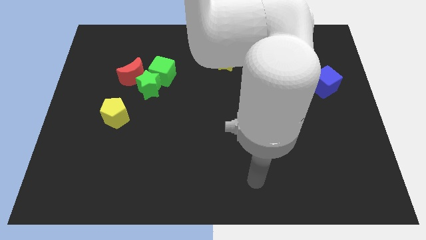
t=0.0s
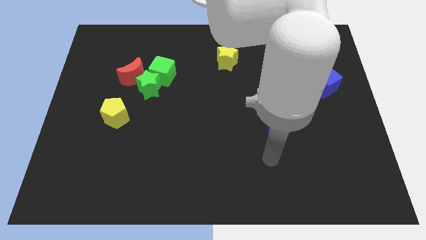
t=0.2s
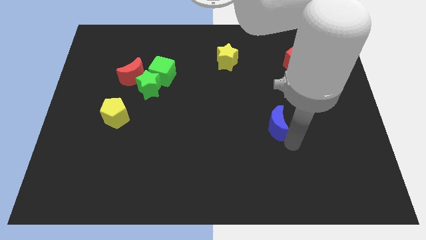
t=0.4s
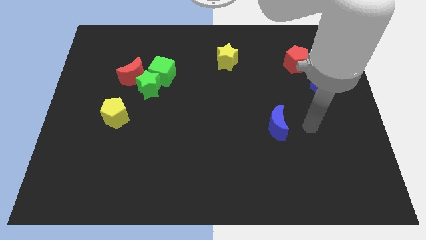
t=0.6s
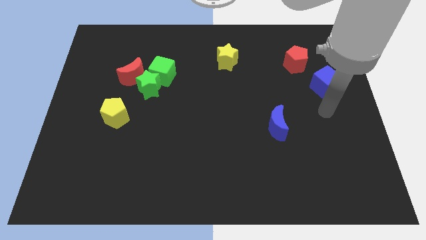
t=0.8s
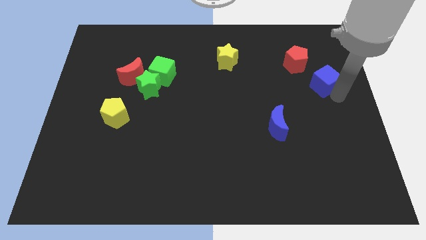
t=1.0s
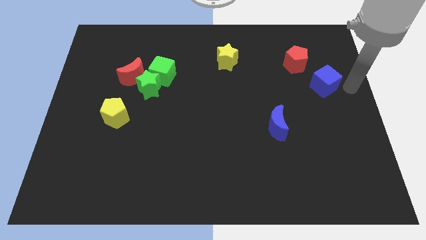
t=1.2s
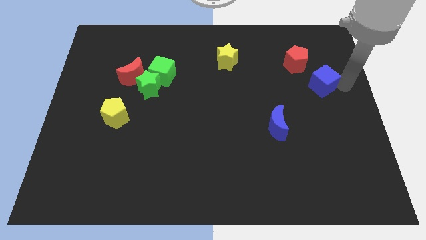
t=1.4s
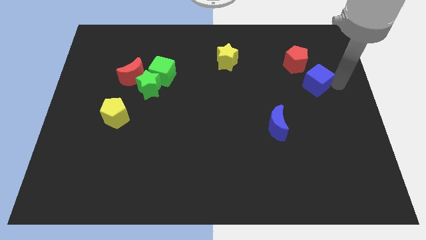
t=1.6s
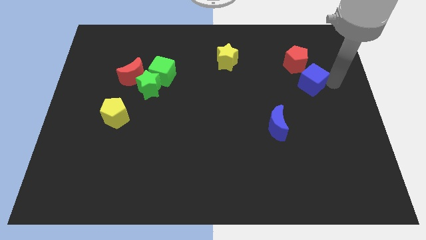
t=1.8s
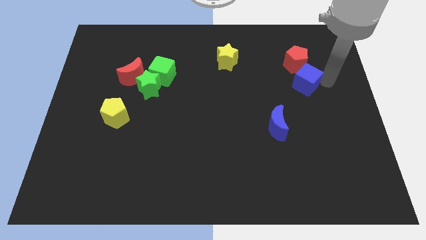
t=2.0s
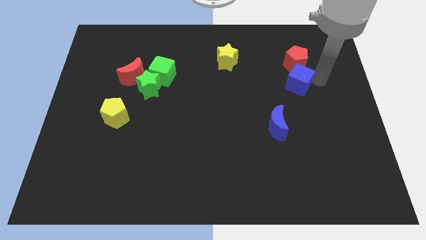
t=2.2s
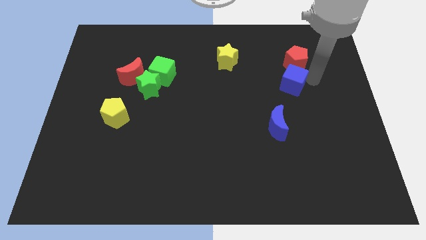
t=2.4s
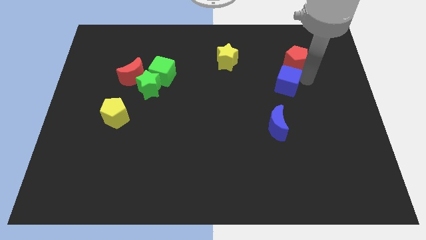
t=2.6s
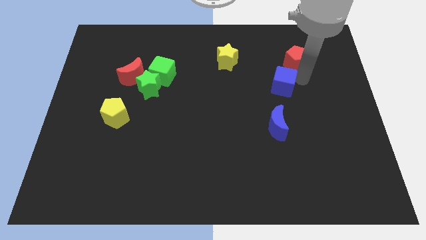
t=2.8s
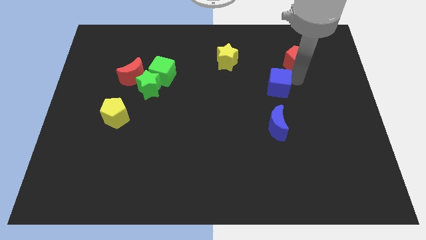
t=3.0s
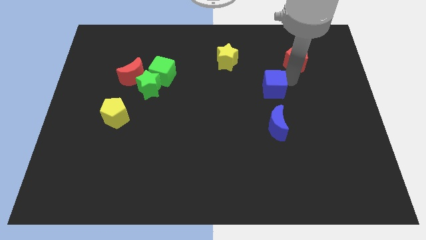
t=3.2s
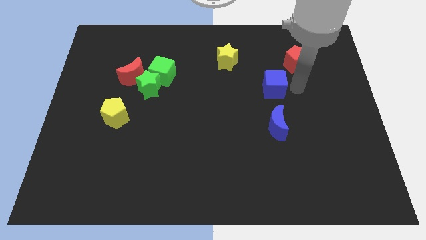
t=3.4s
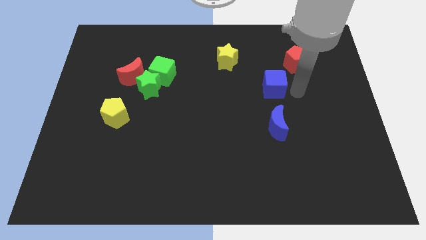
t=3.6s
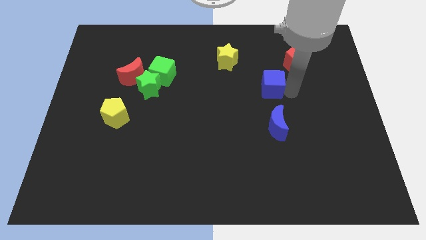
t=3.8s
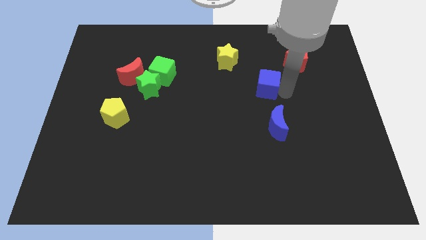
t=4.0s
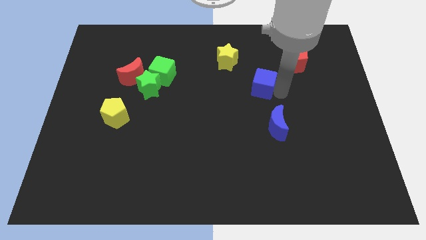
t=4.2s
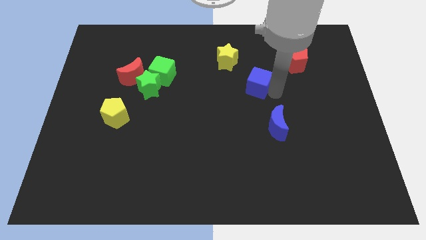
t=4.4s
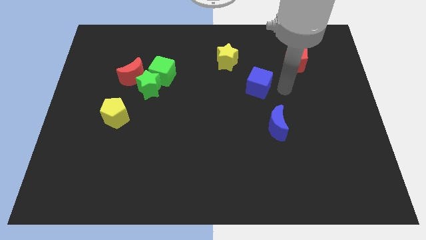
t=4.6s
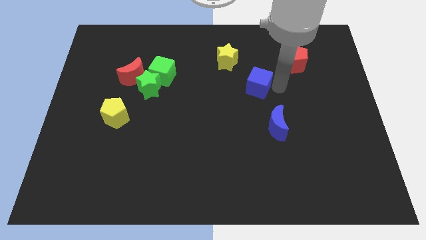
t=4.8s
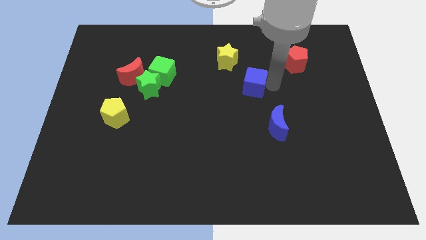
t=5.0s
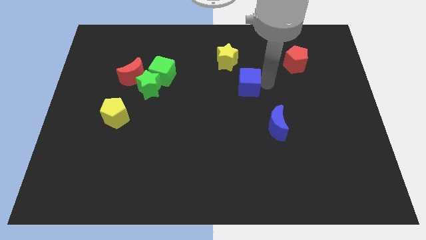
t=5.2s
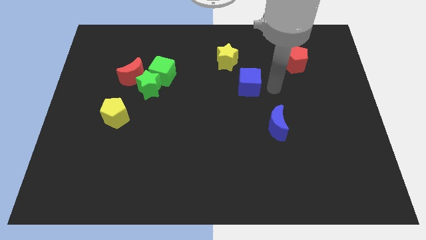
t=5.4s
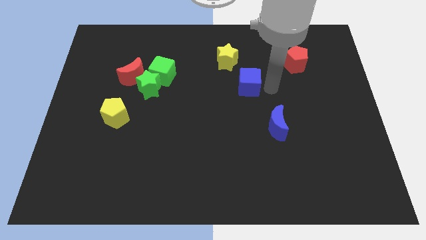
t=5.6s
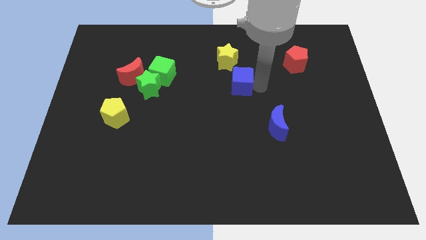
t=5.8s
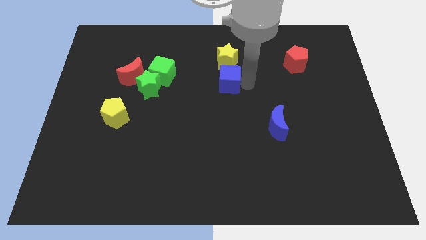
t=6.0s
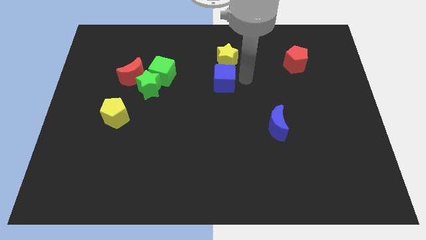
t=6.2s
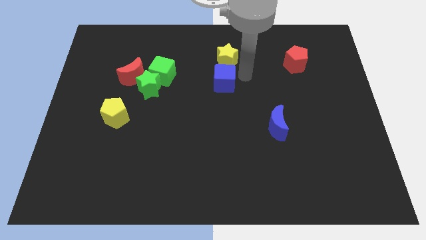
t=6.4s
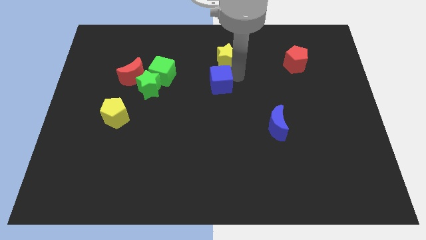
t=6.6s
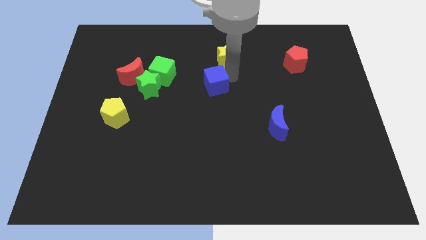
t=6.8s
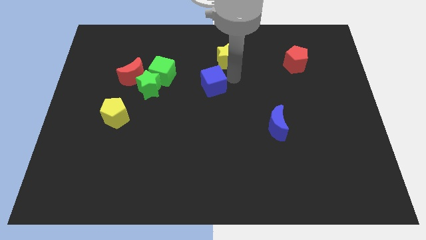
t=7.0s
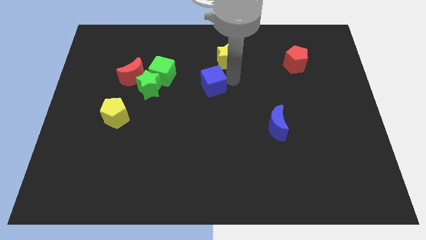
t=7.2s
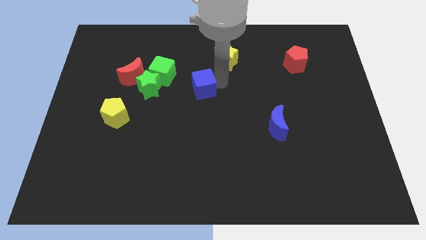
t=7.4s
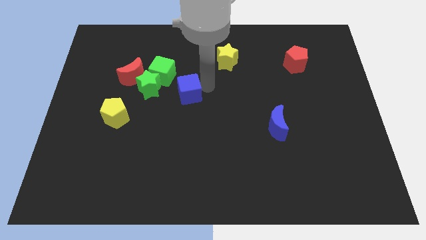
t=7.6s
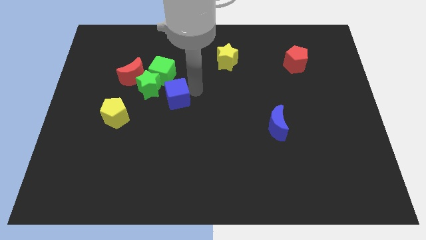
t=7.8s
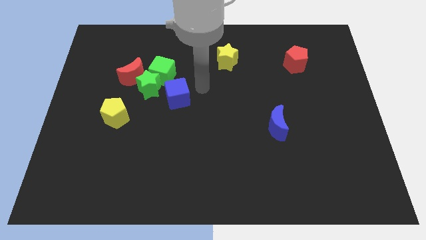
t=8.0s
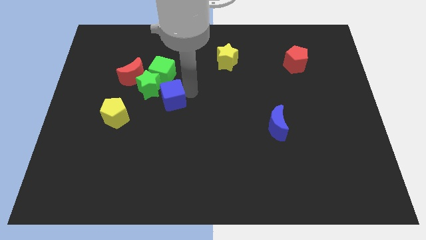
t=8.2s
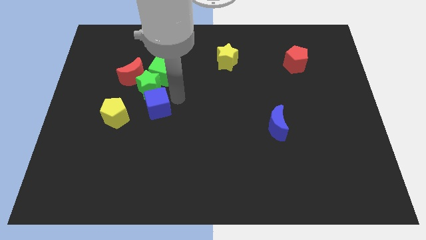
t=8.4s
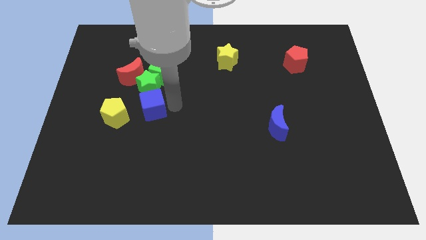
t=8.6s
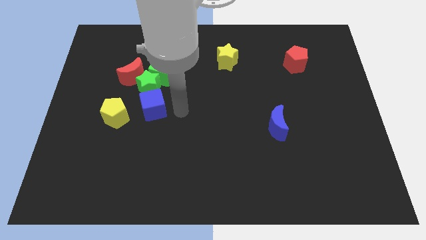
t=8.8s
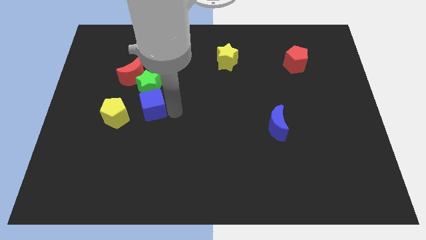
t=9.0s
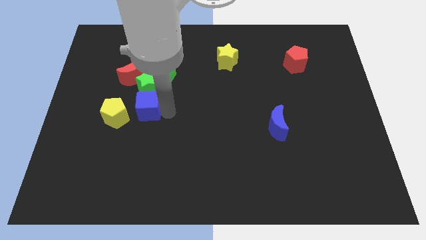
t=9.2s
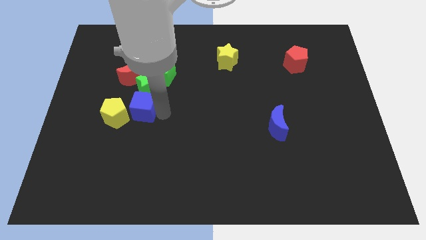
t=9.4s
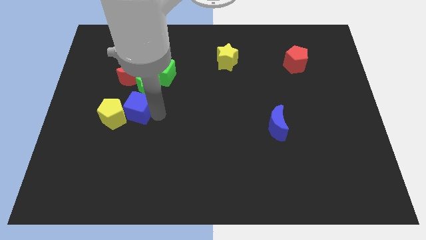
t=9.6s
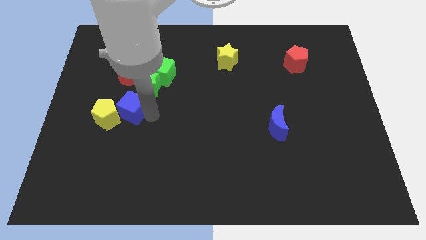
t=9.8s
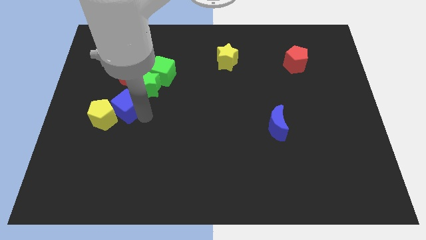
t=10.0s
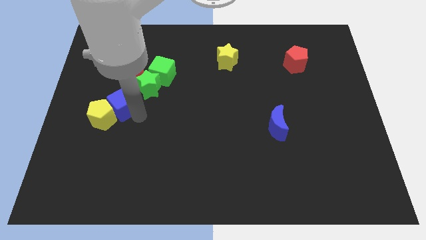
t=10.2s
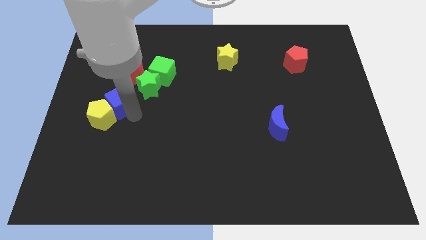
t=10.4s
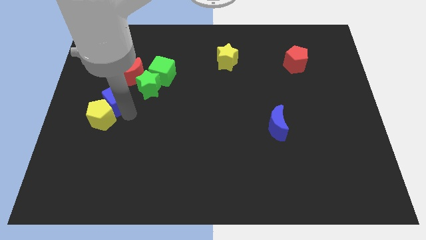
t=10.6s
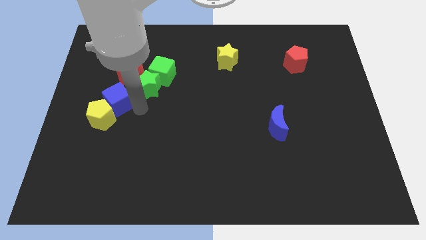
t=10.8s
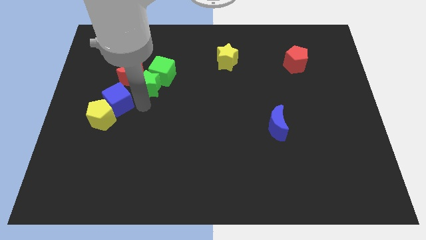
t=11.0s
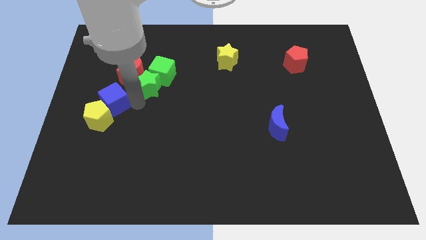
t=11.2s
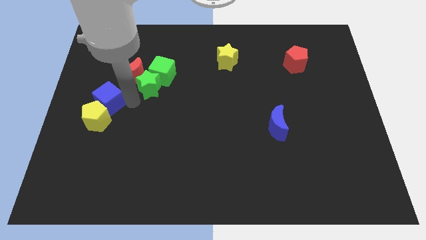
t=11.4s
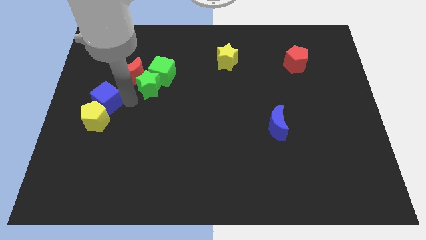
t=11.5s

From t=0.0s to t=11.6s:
slide the blue cube to the center left
